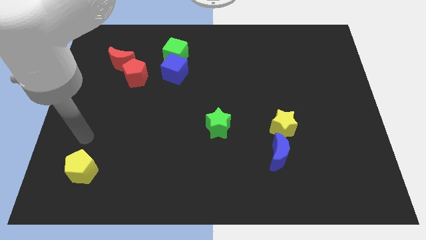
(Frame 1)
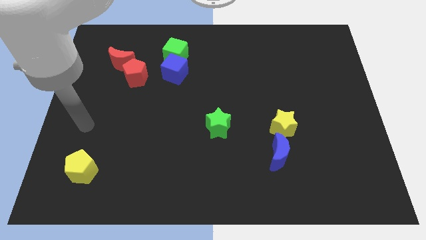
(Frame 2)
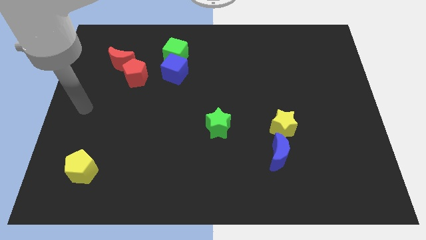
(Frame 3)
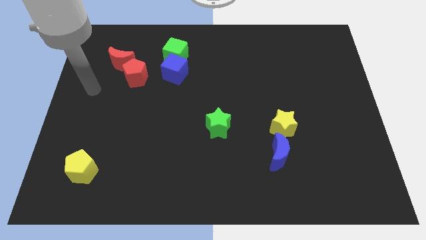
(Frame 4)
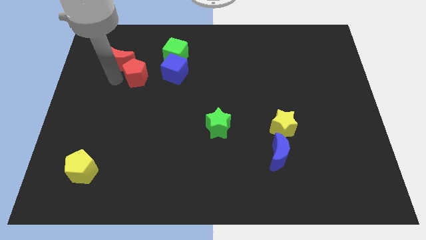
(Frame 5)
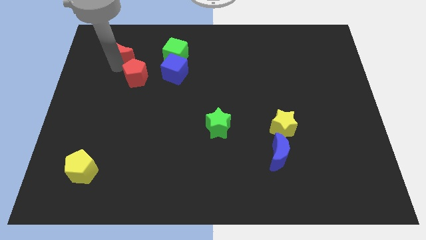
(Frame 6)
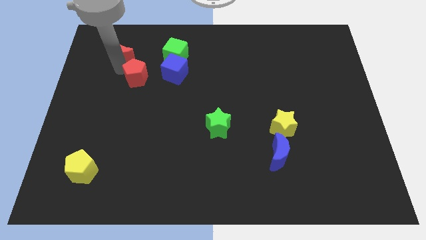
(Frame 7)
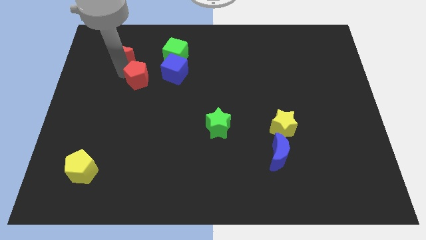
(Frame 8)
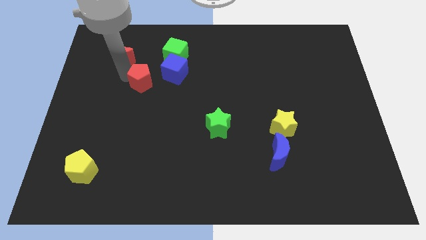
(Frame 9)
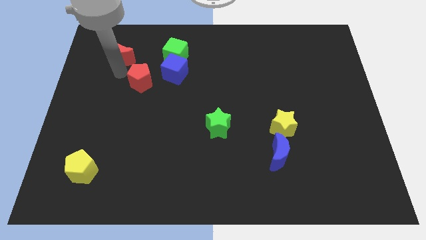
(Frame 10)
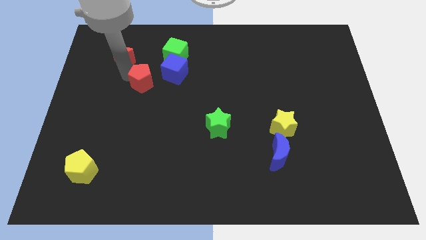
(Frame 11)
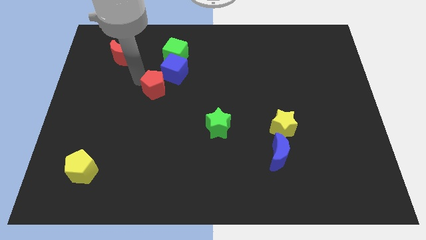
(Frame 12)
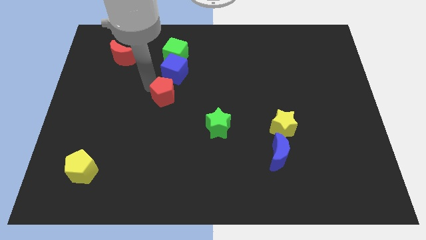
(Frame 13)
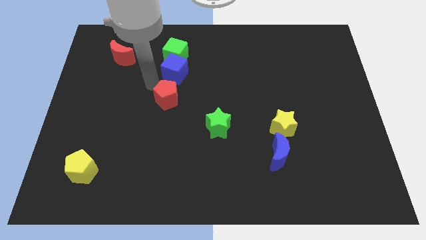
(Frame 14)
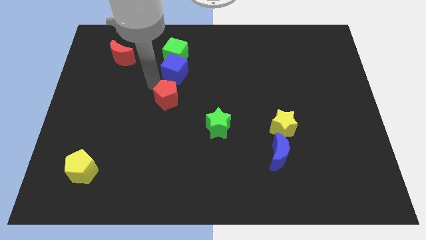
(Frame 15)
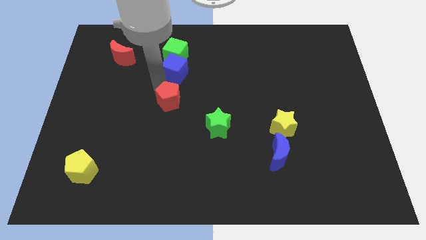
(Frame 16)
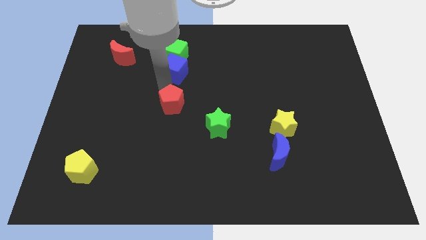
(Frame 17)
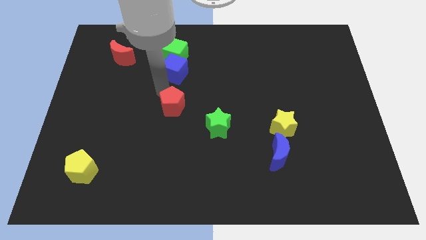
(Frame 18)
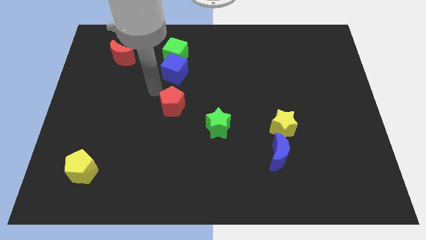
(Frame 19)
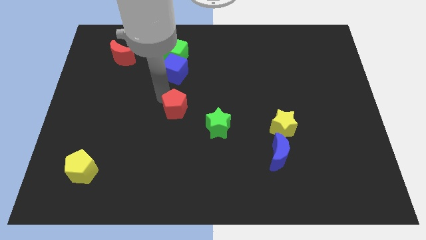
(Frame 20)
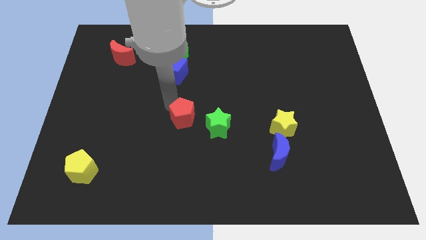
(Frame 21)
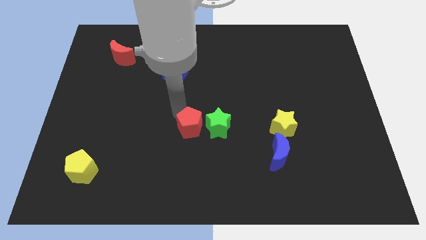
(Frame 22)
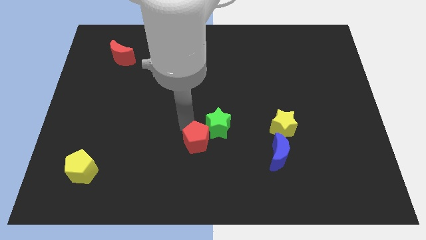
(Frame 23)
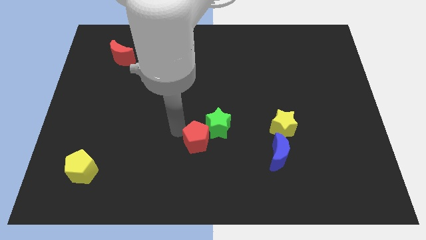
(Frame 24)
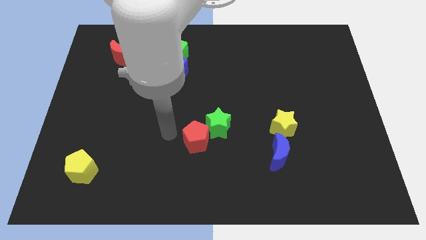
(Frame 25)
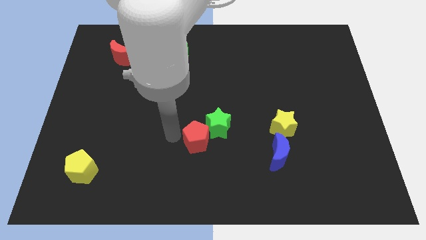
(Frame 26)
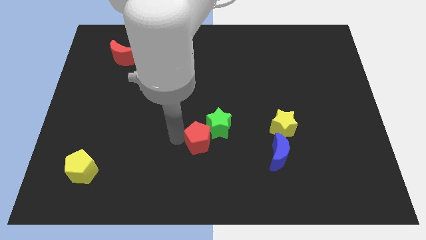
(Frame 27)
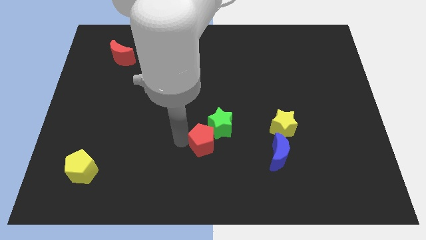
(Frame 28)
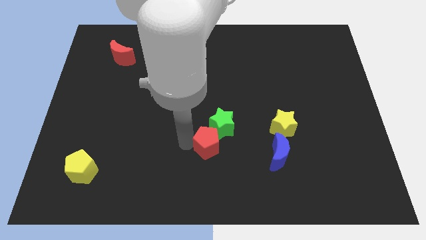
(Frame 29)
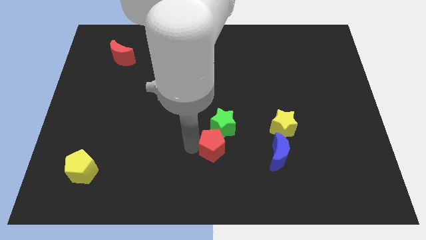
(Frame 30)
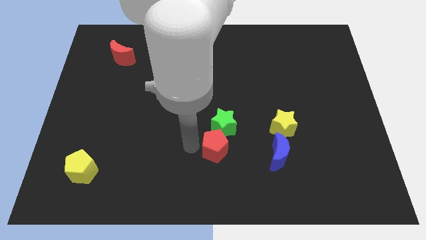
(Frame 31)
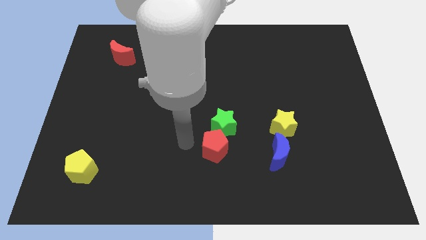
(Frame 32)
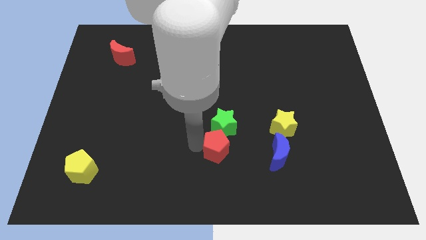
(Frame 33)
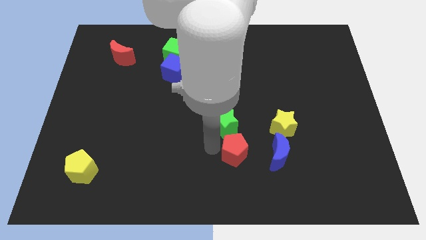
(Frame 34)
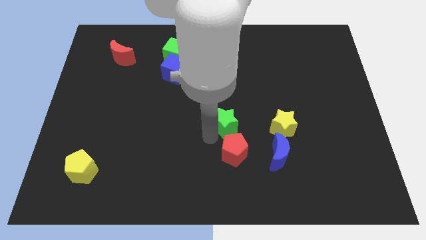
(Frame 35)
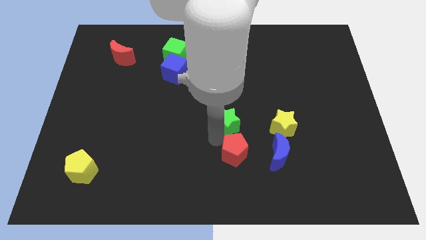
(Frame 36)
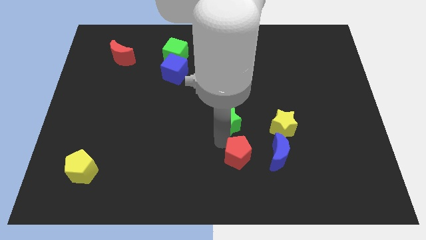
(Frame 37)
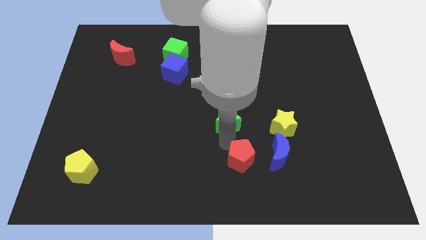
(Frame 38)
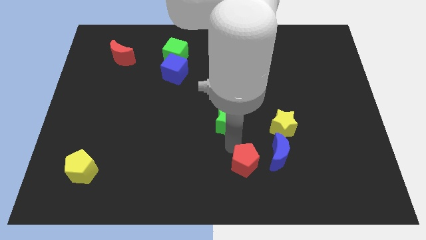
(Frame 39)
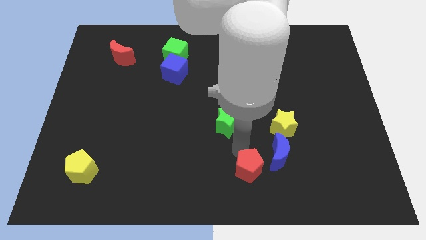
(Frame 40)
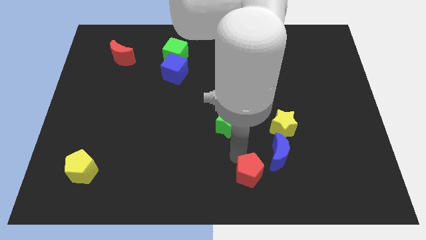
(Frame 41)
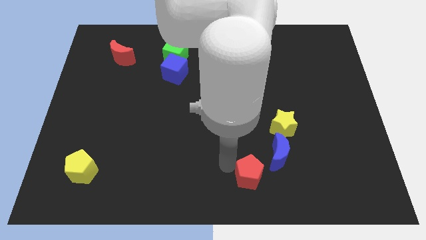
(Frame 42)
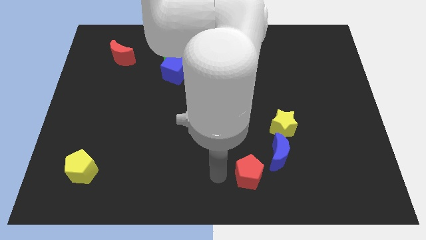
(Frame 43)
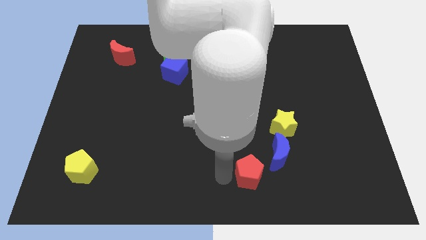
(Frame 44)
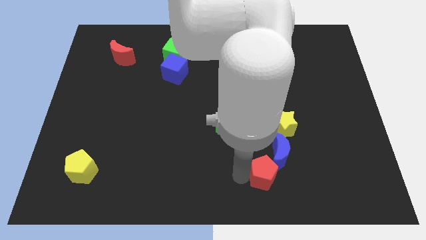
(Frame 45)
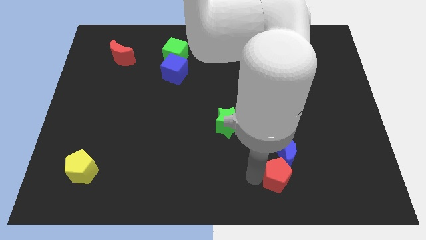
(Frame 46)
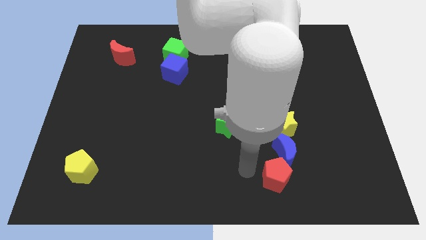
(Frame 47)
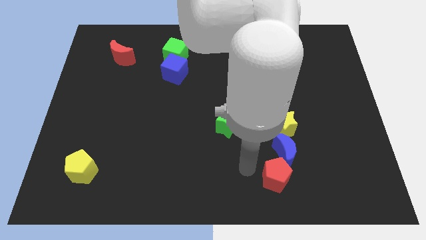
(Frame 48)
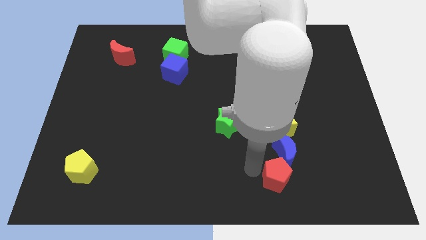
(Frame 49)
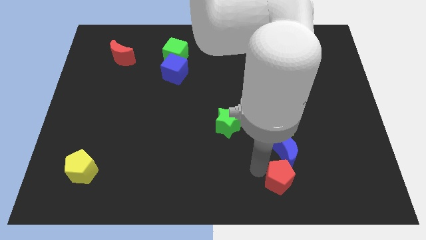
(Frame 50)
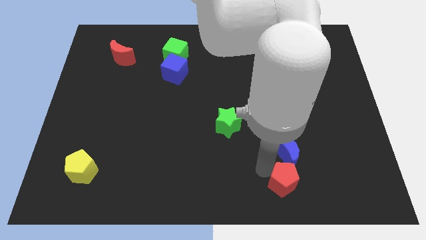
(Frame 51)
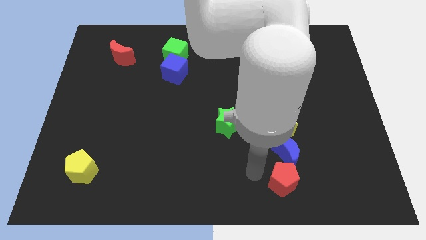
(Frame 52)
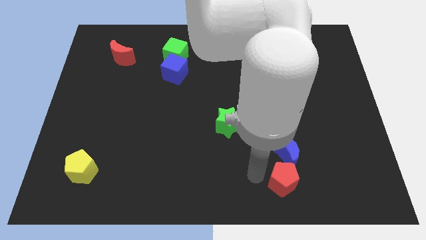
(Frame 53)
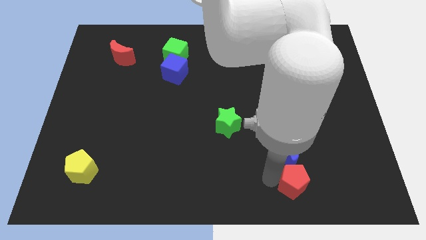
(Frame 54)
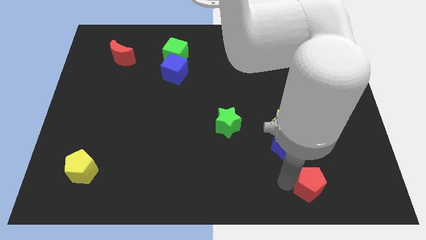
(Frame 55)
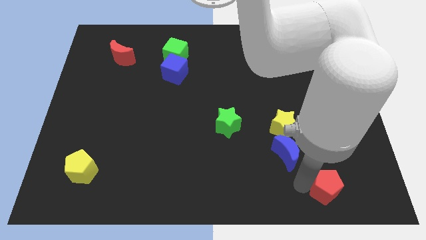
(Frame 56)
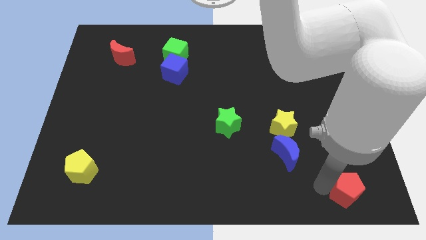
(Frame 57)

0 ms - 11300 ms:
push the red pentagon to the bottom right corner
